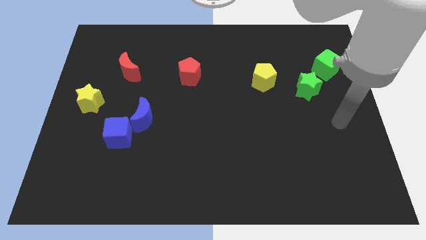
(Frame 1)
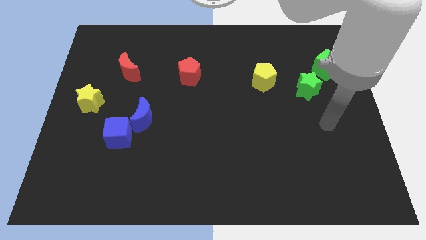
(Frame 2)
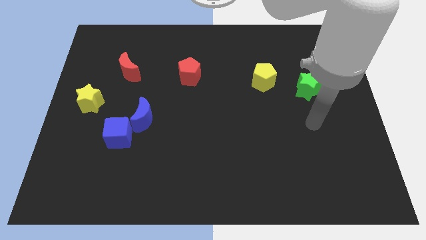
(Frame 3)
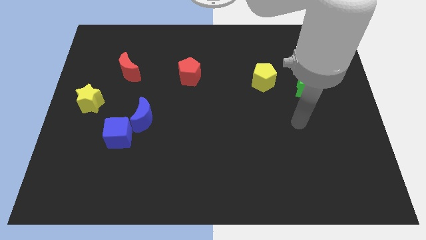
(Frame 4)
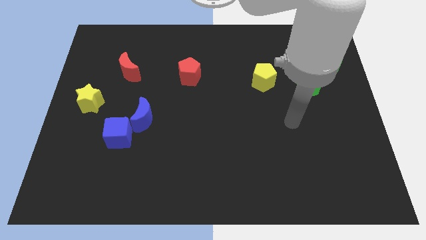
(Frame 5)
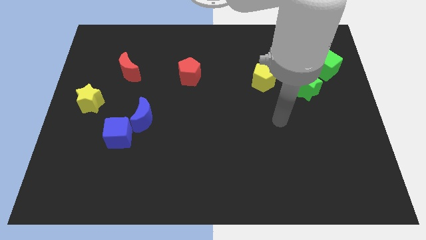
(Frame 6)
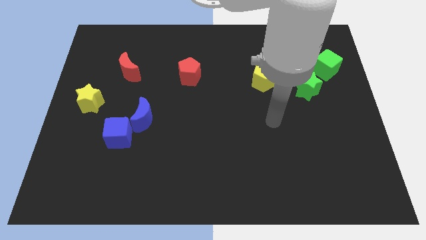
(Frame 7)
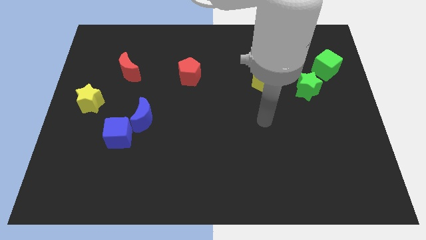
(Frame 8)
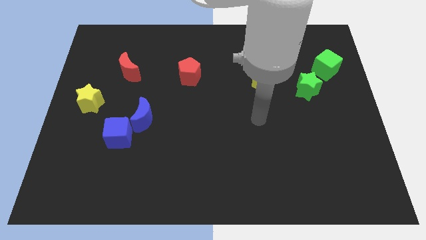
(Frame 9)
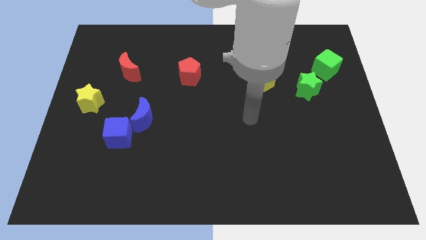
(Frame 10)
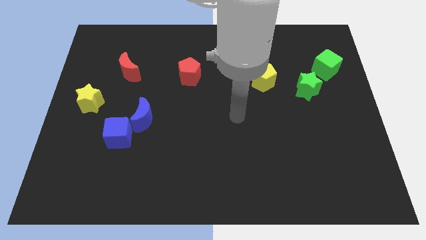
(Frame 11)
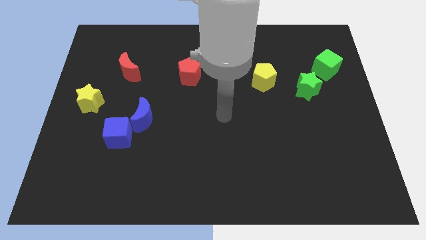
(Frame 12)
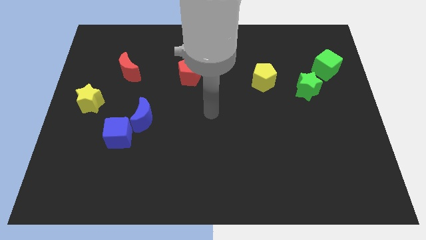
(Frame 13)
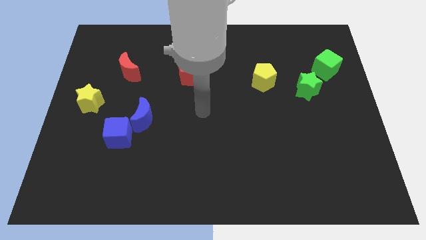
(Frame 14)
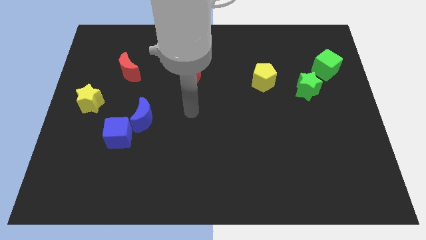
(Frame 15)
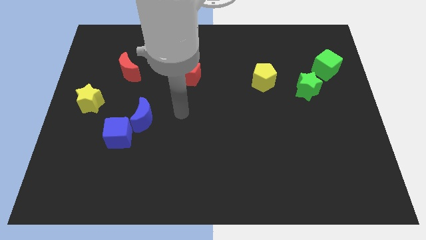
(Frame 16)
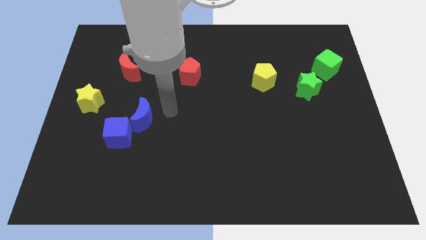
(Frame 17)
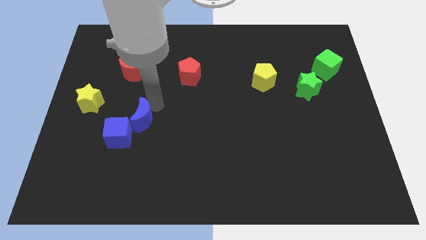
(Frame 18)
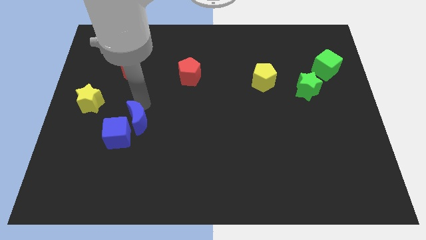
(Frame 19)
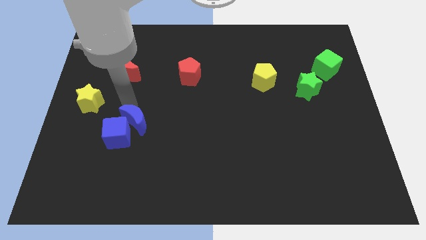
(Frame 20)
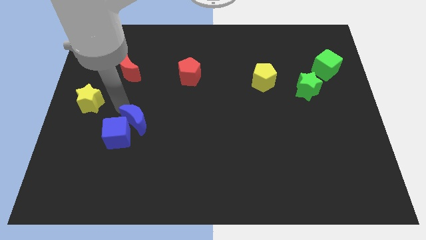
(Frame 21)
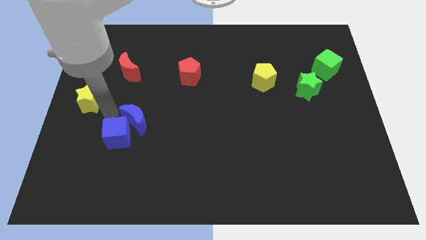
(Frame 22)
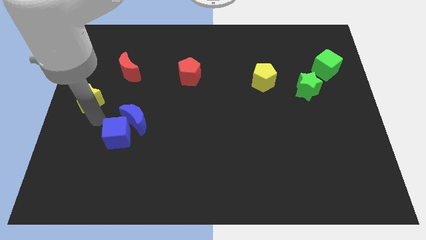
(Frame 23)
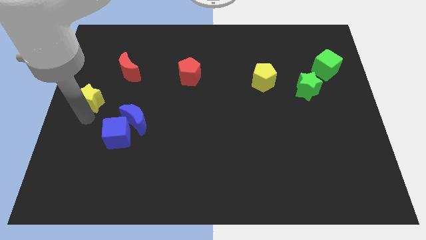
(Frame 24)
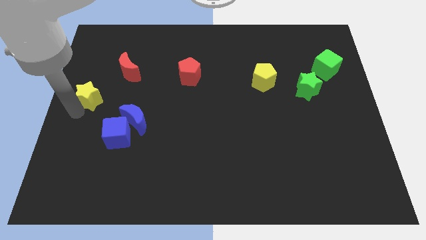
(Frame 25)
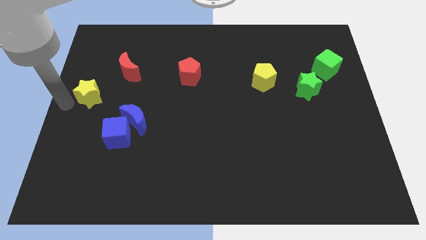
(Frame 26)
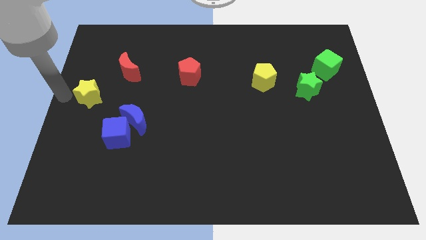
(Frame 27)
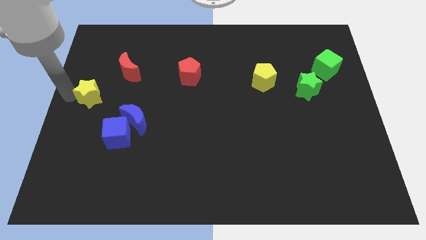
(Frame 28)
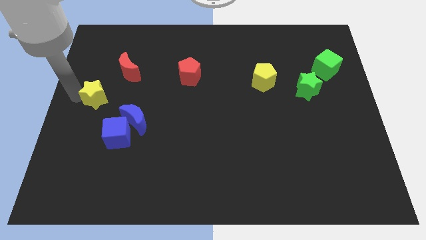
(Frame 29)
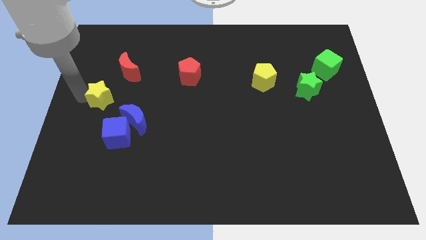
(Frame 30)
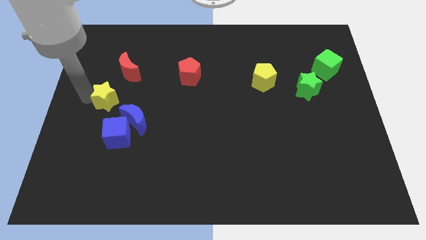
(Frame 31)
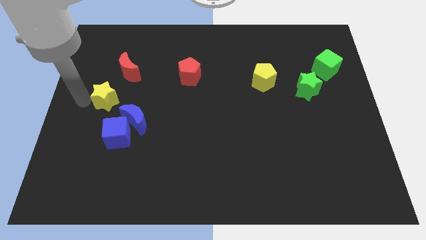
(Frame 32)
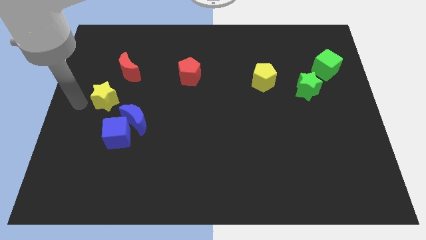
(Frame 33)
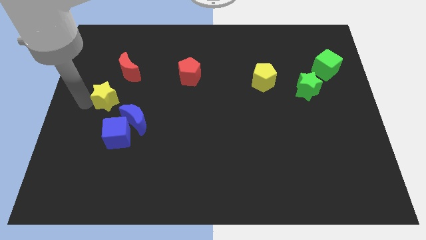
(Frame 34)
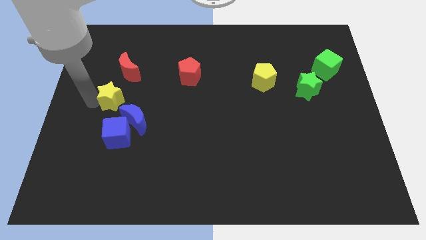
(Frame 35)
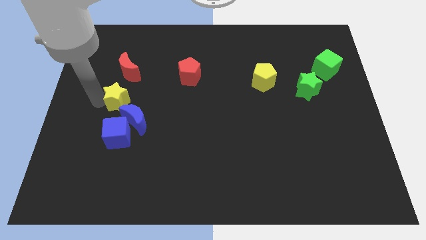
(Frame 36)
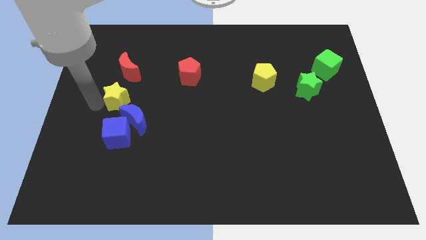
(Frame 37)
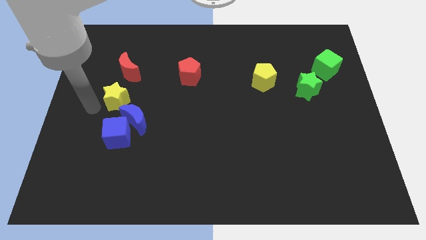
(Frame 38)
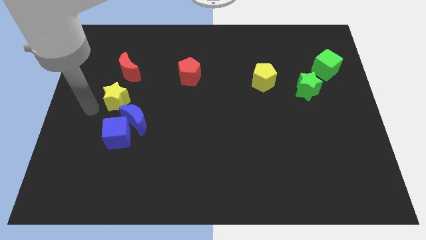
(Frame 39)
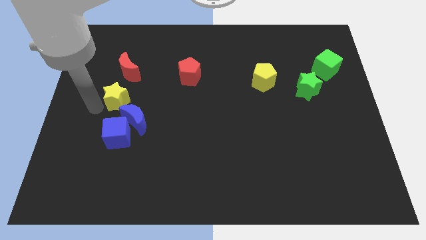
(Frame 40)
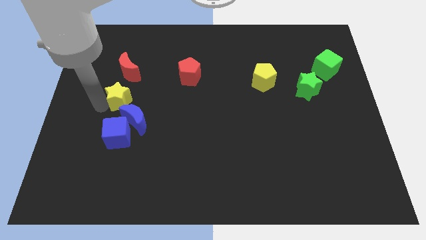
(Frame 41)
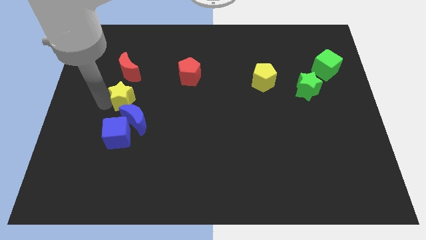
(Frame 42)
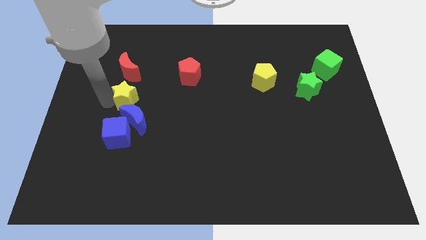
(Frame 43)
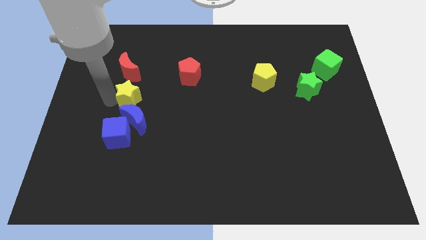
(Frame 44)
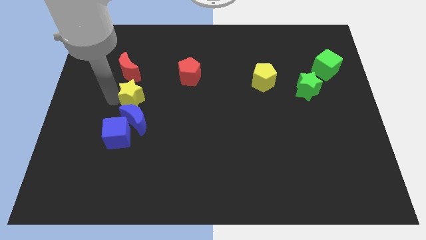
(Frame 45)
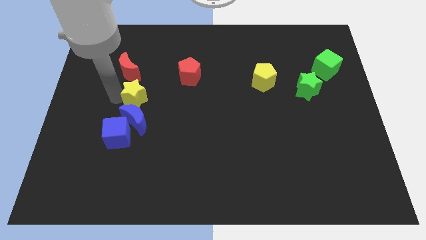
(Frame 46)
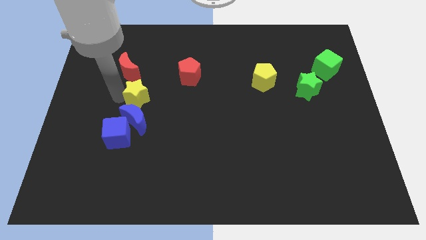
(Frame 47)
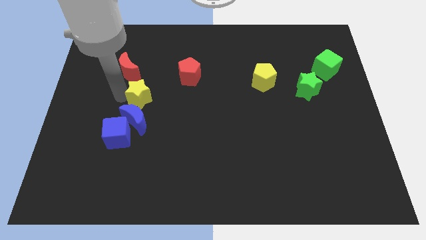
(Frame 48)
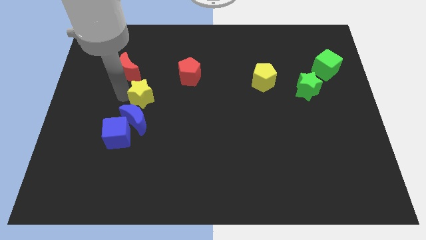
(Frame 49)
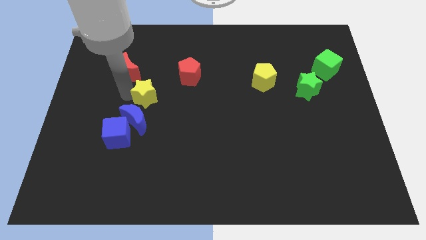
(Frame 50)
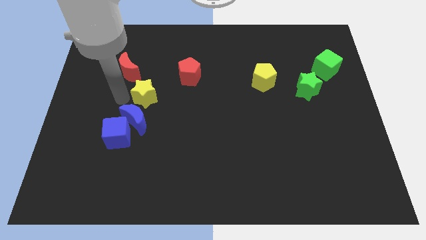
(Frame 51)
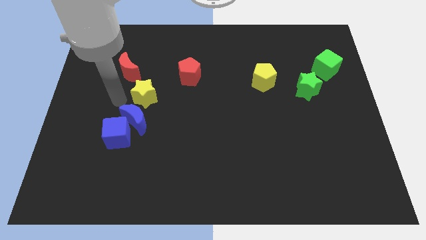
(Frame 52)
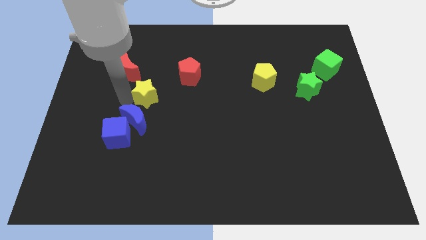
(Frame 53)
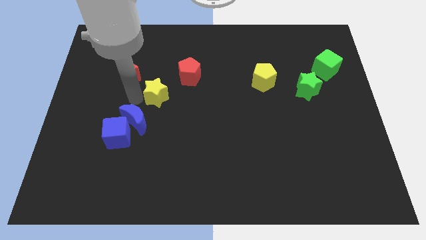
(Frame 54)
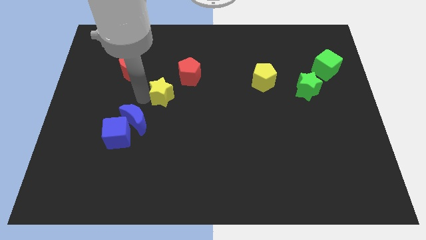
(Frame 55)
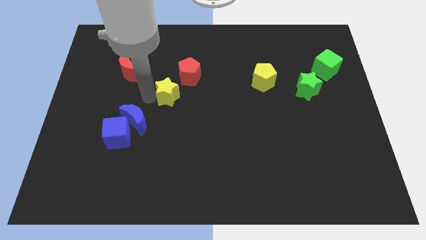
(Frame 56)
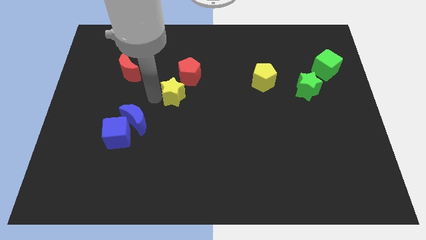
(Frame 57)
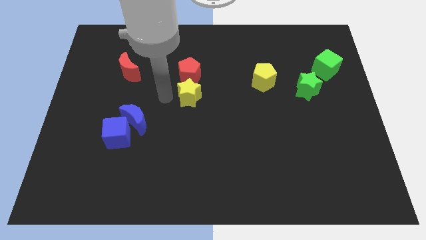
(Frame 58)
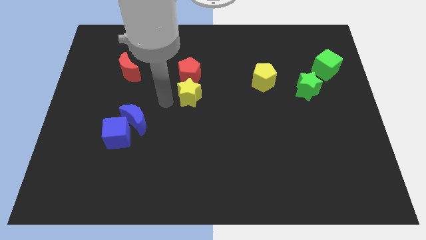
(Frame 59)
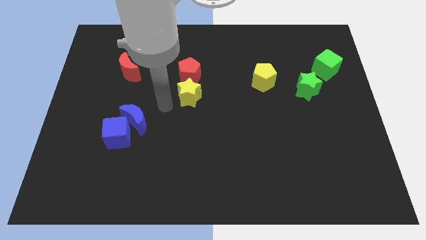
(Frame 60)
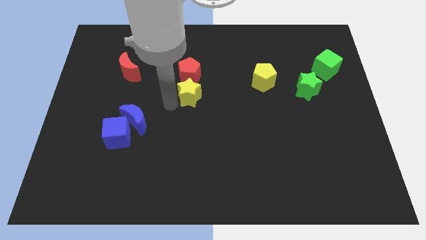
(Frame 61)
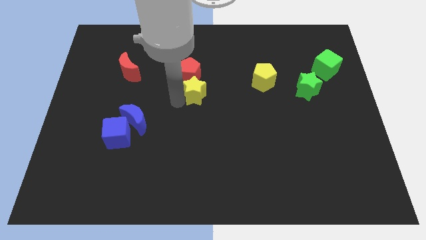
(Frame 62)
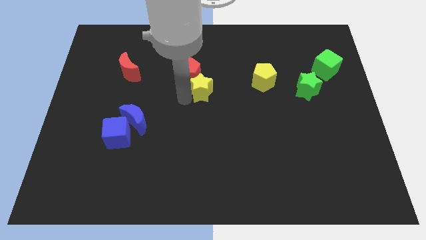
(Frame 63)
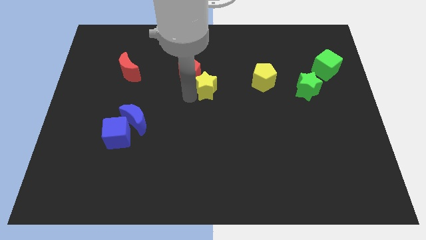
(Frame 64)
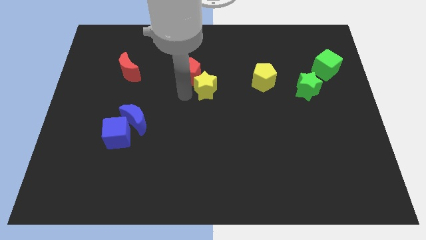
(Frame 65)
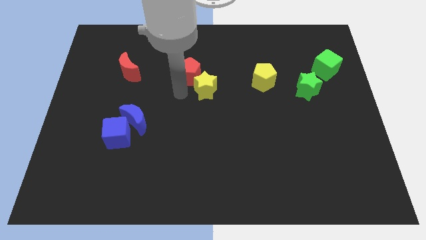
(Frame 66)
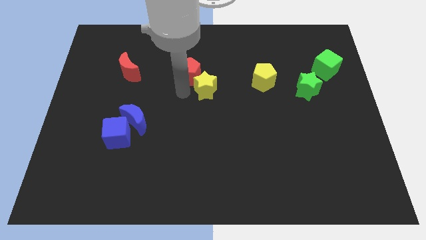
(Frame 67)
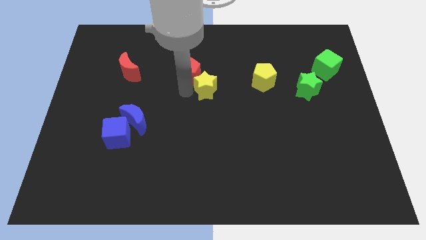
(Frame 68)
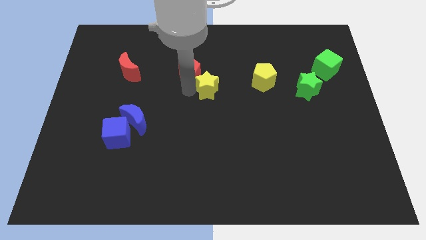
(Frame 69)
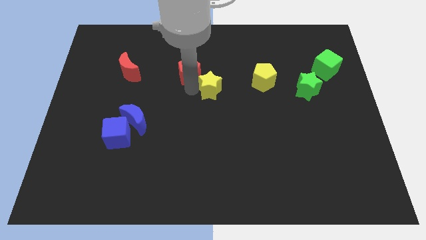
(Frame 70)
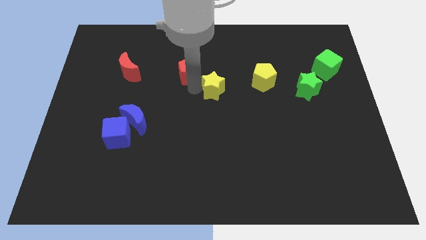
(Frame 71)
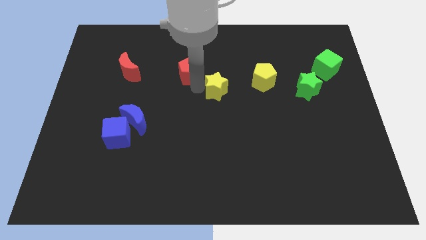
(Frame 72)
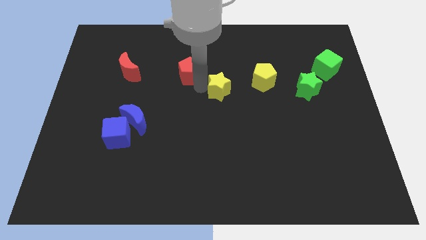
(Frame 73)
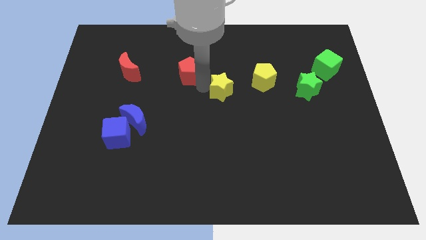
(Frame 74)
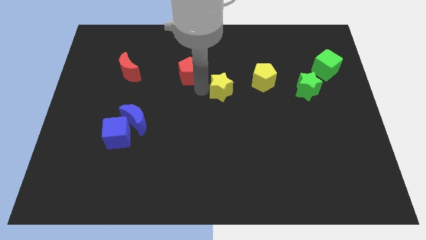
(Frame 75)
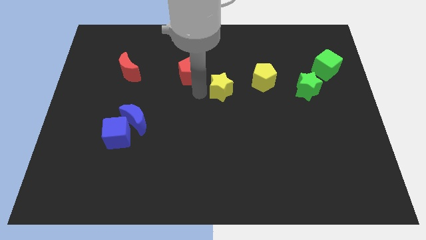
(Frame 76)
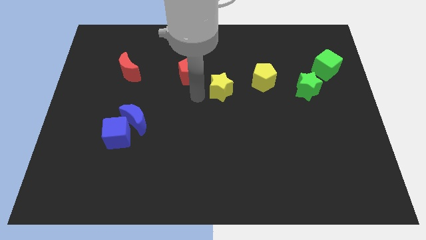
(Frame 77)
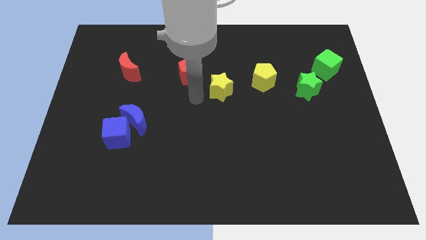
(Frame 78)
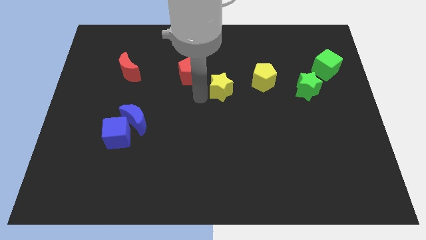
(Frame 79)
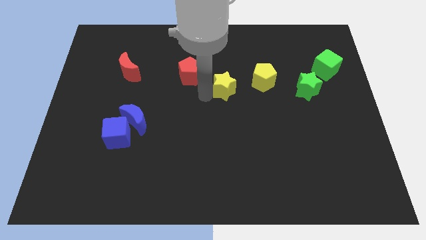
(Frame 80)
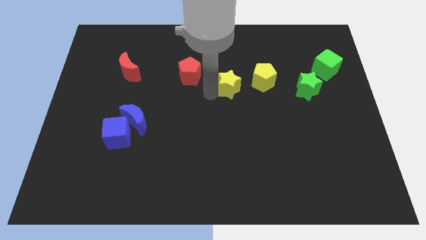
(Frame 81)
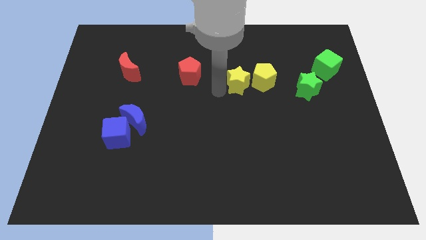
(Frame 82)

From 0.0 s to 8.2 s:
push the yellow star towards the yellow pentagon
